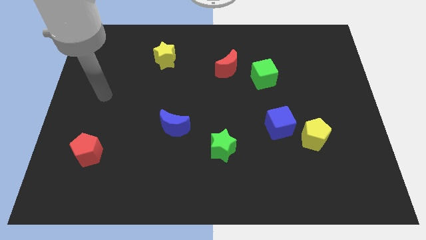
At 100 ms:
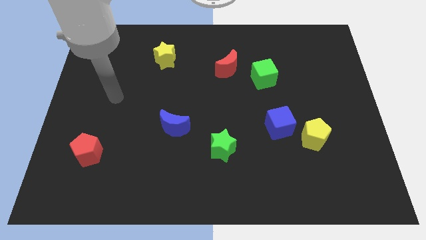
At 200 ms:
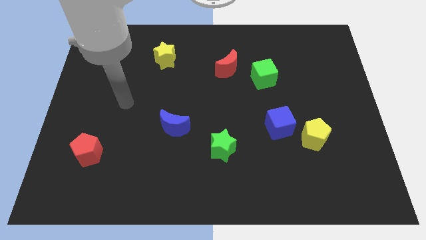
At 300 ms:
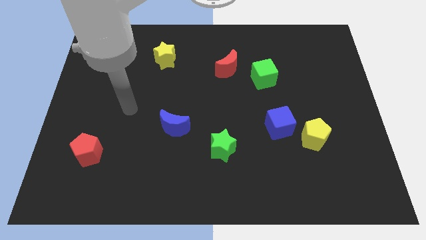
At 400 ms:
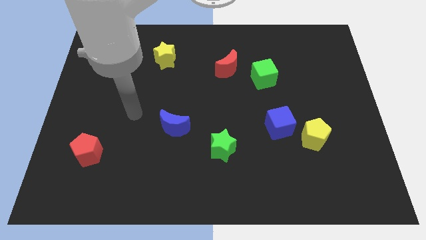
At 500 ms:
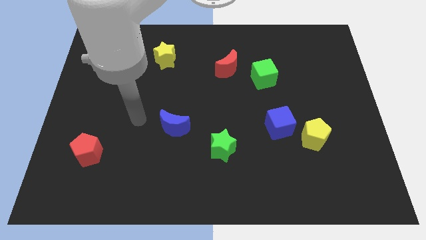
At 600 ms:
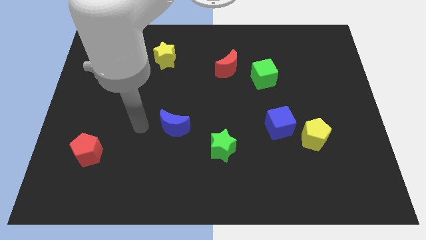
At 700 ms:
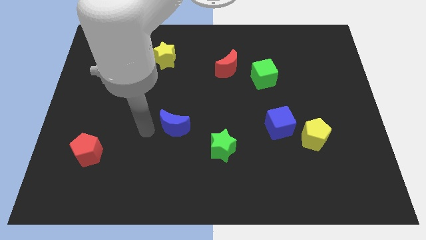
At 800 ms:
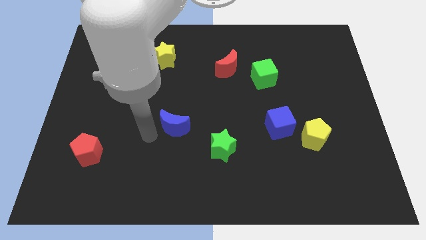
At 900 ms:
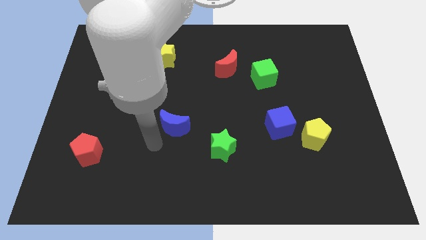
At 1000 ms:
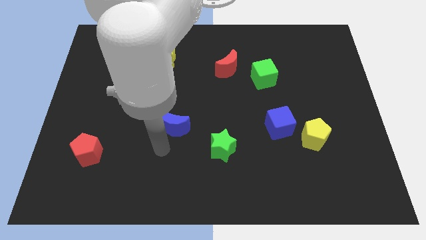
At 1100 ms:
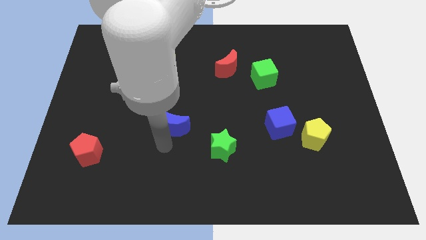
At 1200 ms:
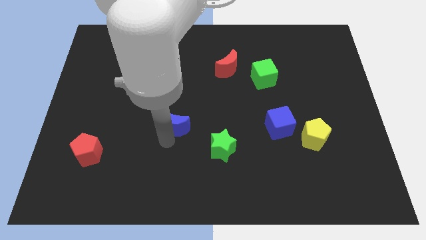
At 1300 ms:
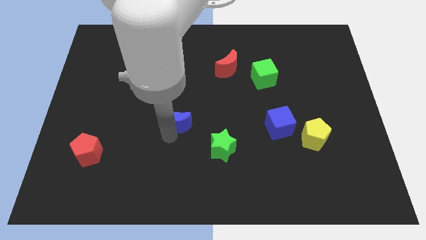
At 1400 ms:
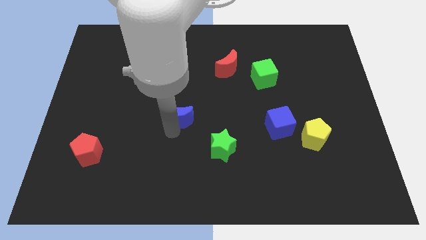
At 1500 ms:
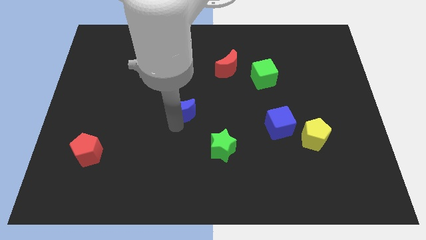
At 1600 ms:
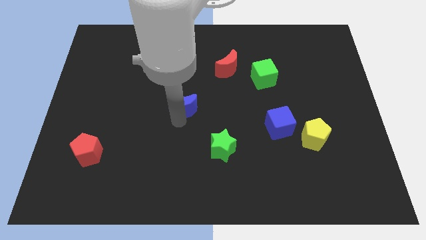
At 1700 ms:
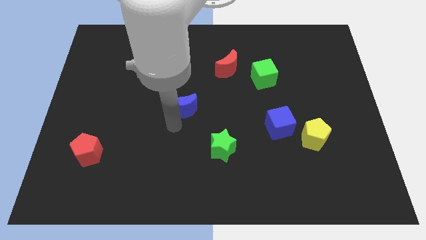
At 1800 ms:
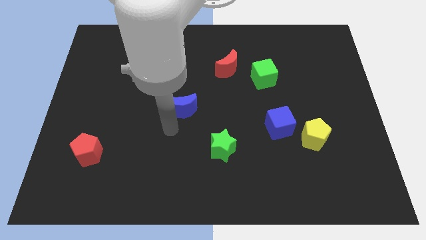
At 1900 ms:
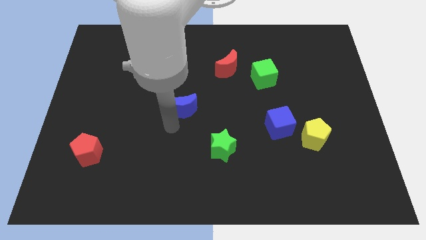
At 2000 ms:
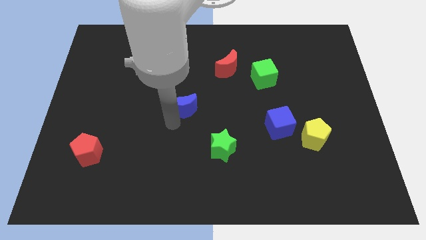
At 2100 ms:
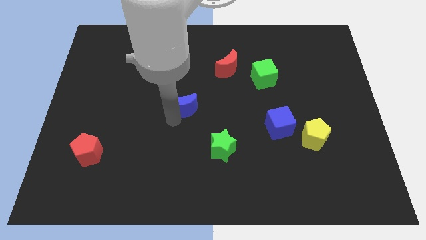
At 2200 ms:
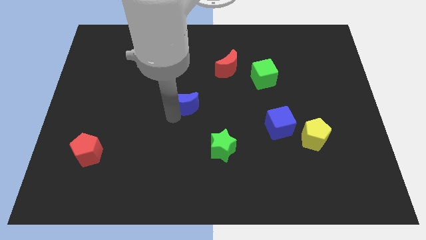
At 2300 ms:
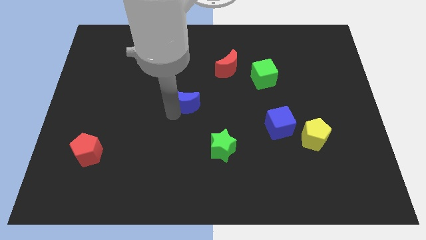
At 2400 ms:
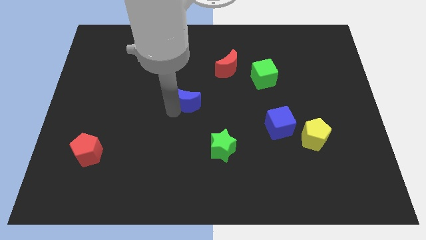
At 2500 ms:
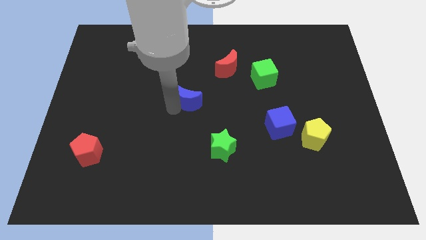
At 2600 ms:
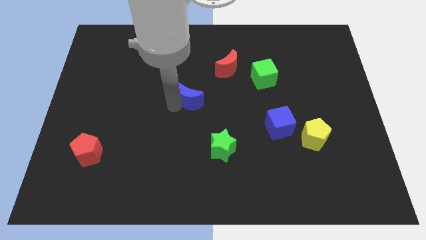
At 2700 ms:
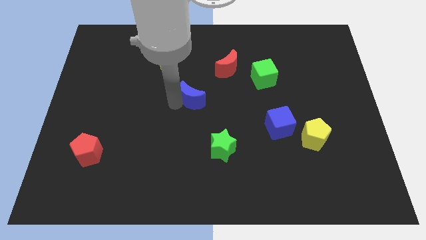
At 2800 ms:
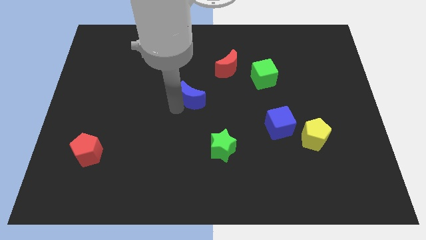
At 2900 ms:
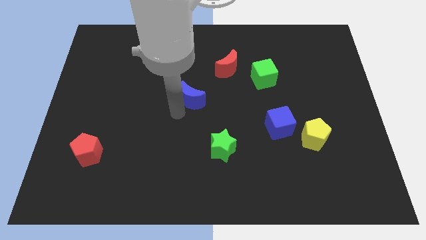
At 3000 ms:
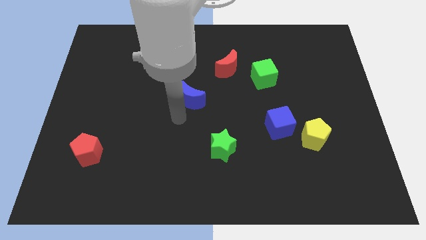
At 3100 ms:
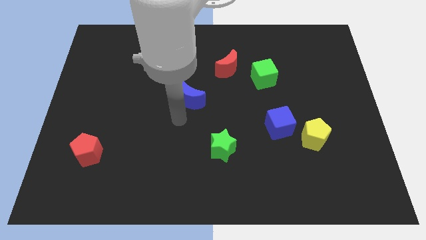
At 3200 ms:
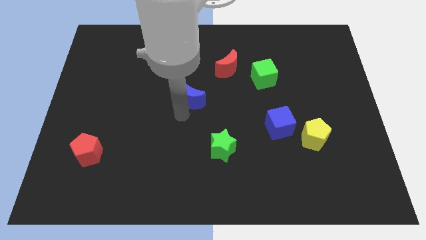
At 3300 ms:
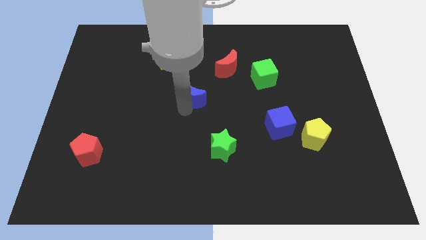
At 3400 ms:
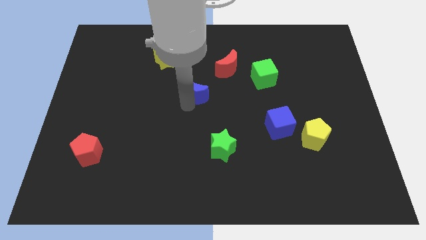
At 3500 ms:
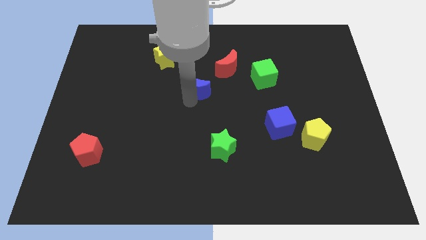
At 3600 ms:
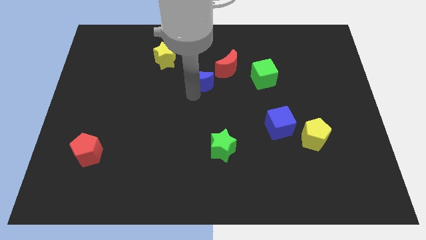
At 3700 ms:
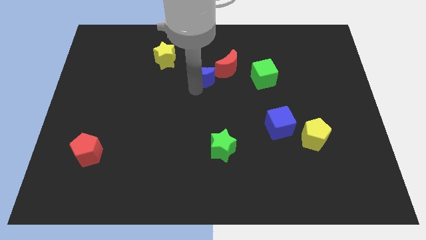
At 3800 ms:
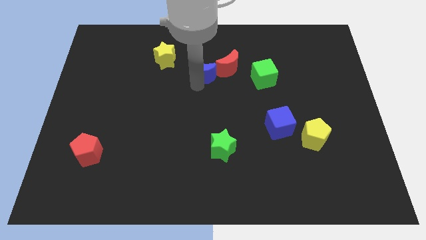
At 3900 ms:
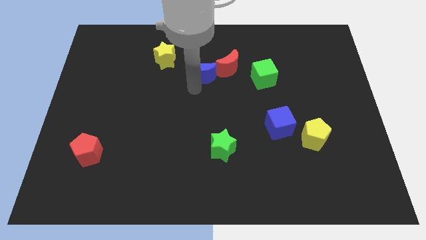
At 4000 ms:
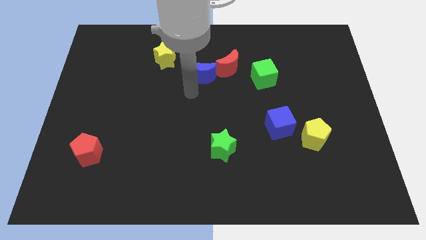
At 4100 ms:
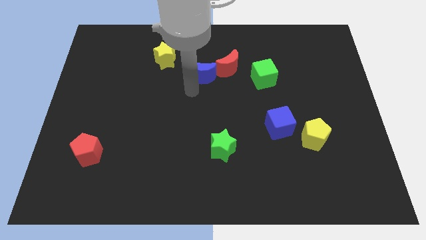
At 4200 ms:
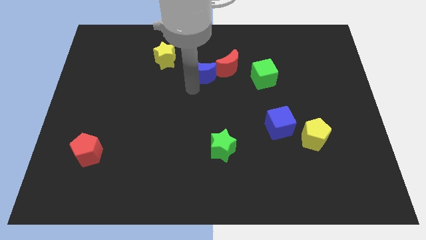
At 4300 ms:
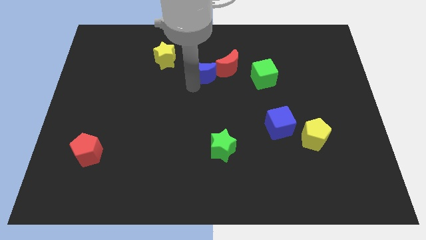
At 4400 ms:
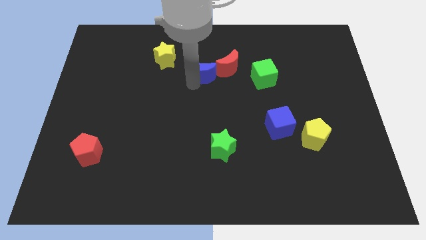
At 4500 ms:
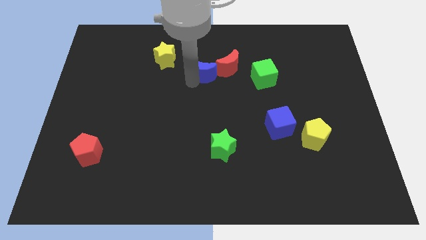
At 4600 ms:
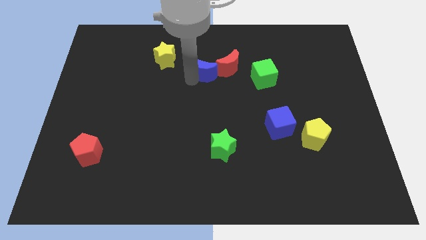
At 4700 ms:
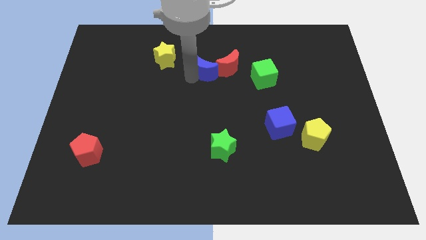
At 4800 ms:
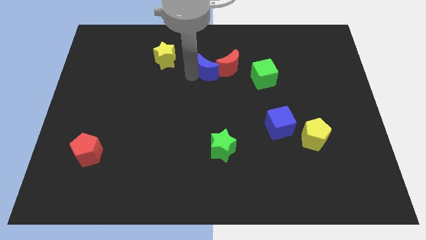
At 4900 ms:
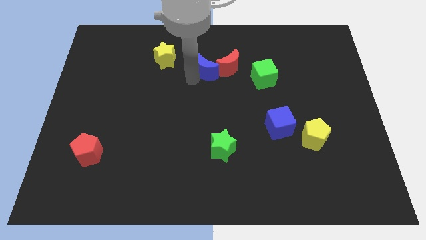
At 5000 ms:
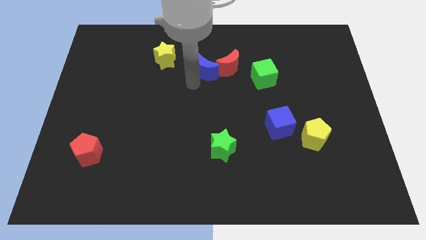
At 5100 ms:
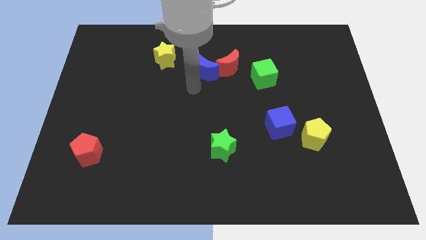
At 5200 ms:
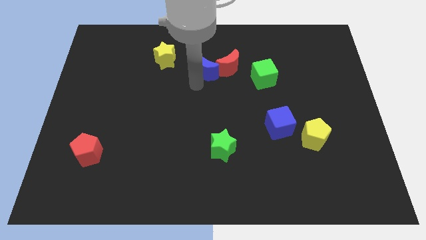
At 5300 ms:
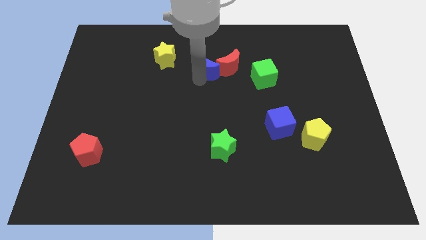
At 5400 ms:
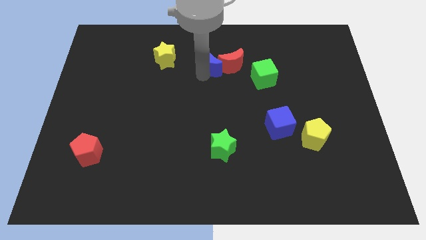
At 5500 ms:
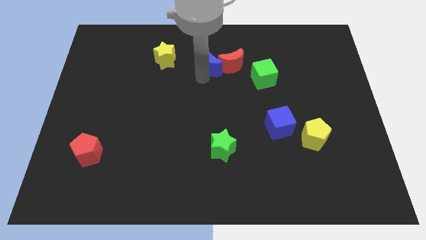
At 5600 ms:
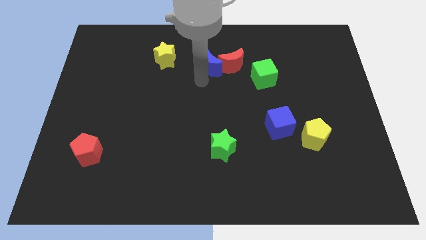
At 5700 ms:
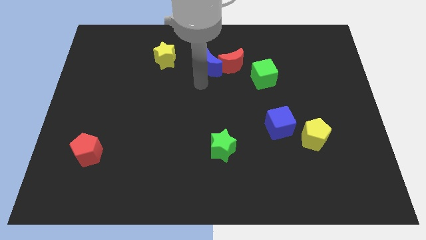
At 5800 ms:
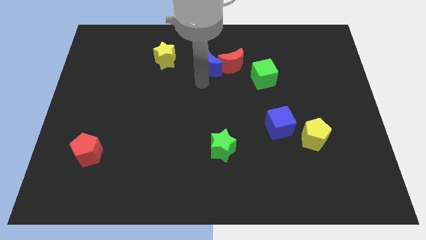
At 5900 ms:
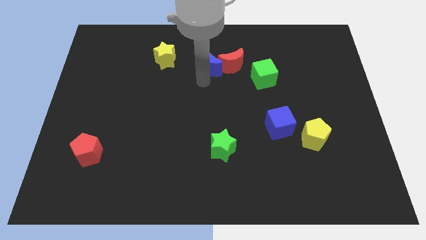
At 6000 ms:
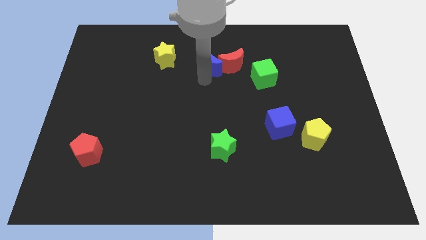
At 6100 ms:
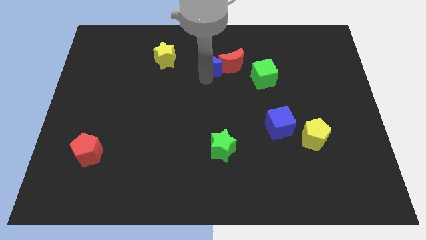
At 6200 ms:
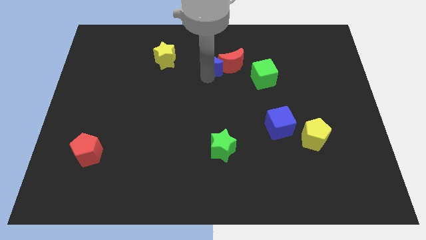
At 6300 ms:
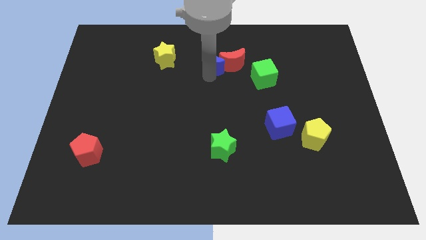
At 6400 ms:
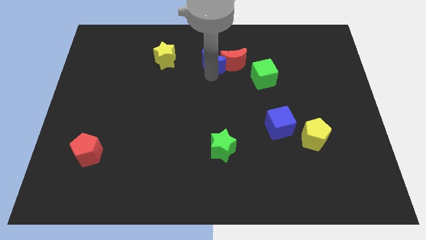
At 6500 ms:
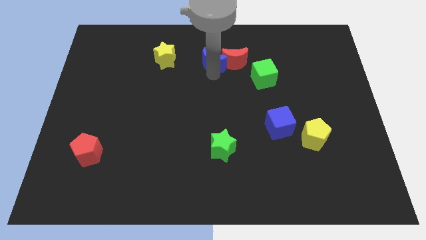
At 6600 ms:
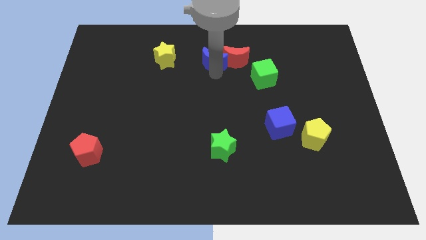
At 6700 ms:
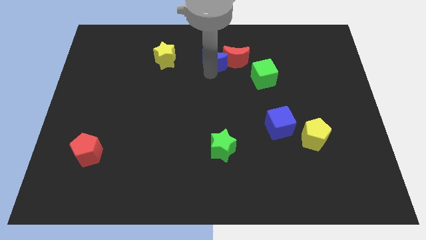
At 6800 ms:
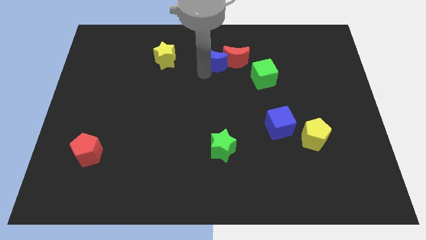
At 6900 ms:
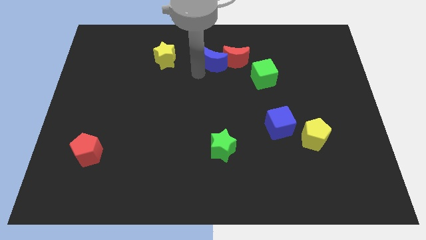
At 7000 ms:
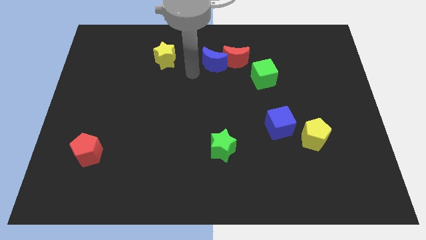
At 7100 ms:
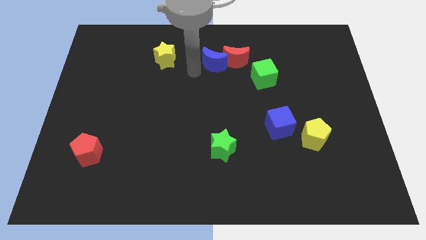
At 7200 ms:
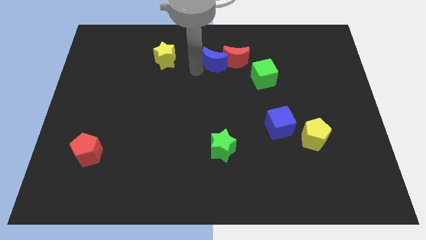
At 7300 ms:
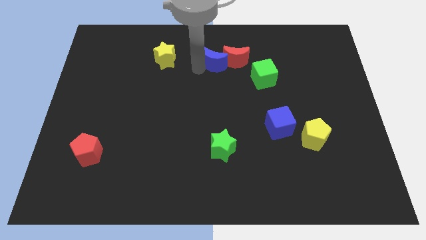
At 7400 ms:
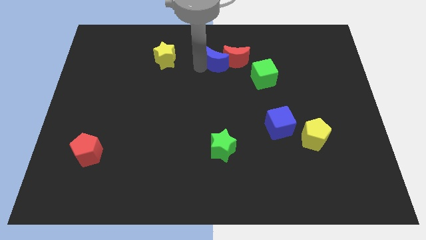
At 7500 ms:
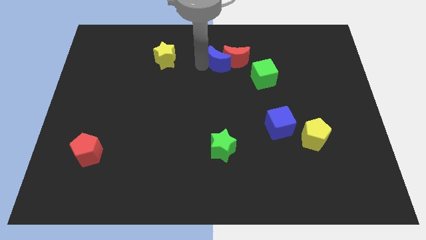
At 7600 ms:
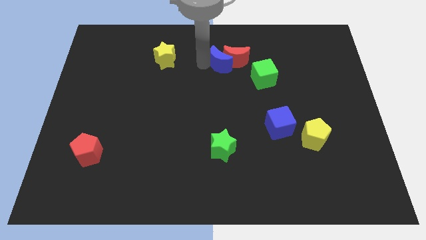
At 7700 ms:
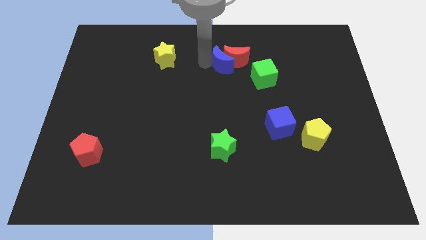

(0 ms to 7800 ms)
push the blue moon up and to the right diagonally

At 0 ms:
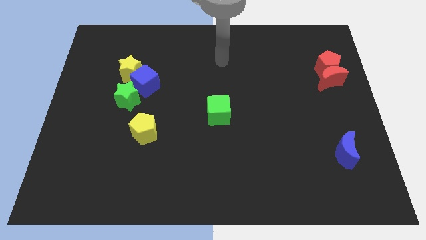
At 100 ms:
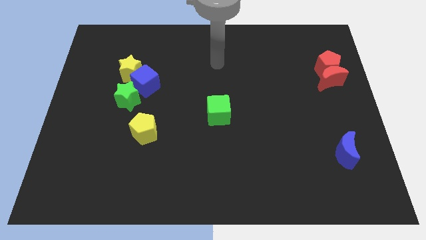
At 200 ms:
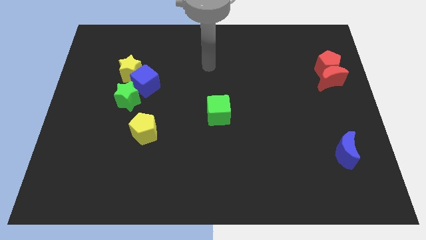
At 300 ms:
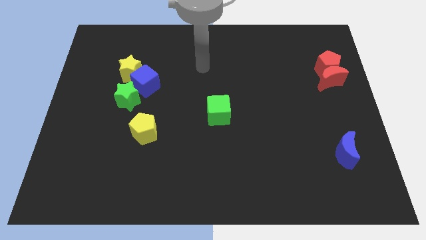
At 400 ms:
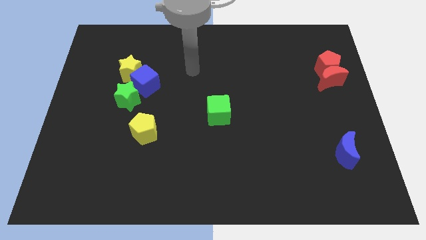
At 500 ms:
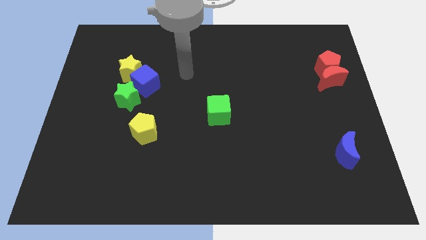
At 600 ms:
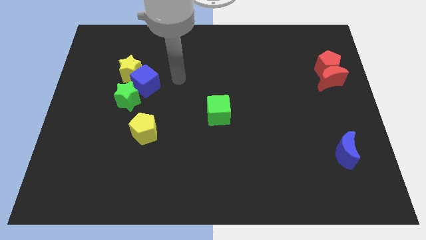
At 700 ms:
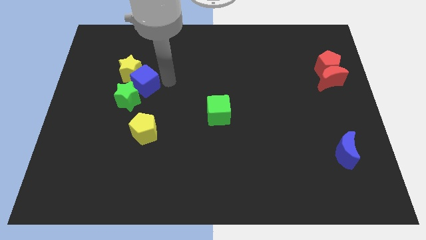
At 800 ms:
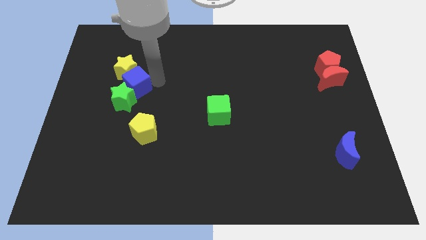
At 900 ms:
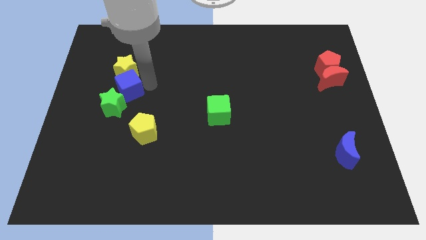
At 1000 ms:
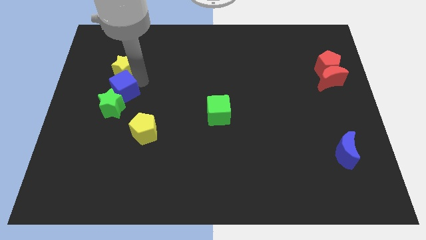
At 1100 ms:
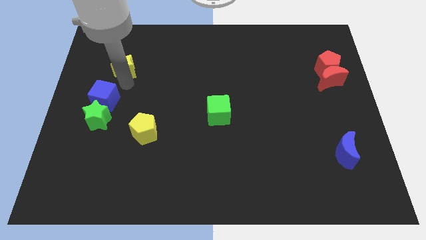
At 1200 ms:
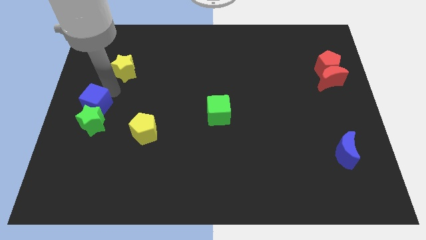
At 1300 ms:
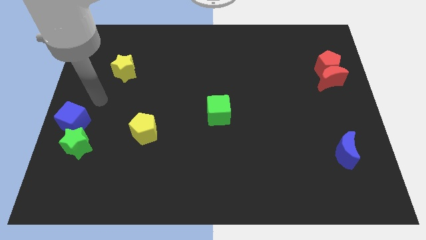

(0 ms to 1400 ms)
move the green star down somewhat
